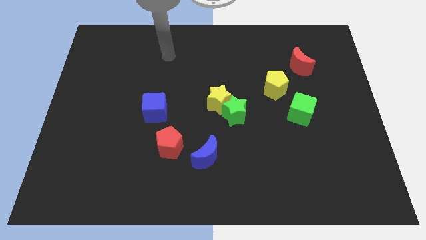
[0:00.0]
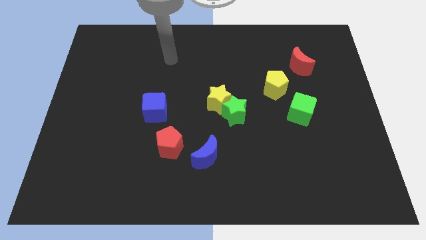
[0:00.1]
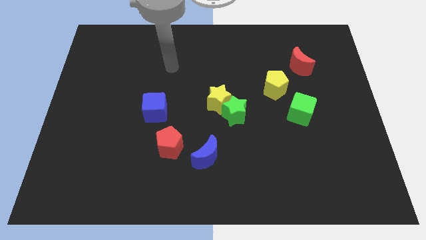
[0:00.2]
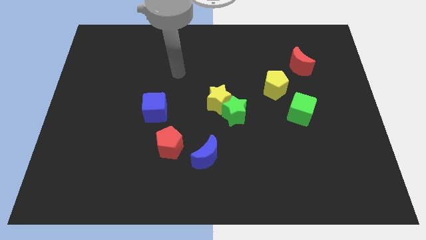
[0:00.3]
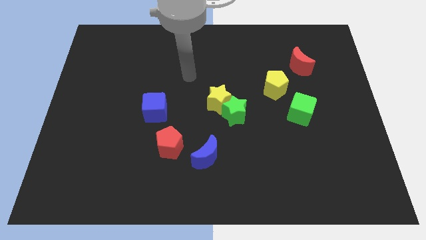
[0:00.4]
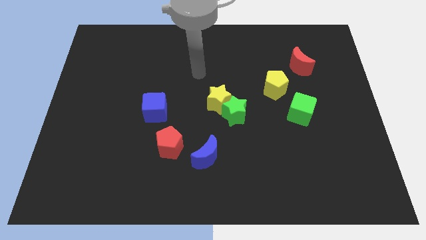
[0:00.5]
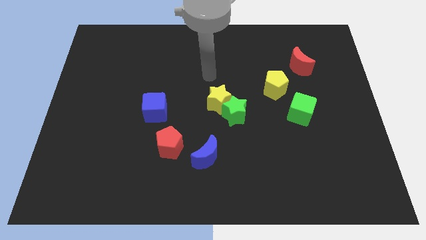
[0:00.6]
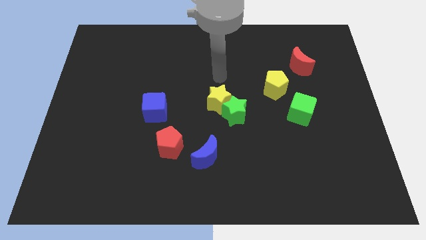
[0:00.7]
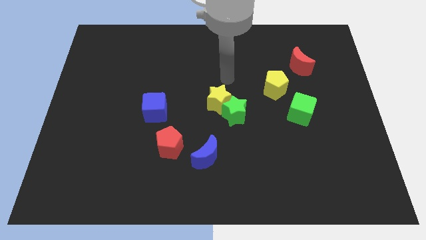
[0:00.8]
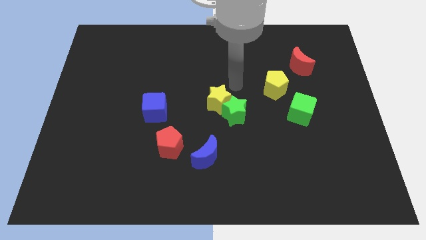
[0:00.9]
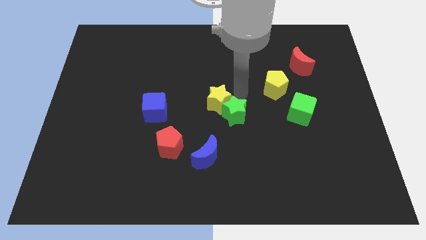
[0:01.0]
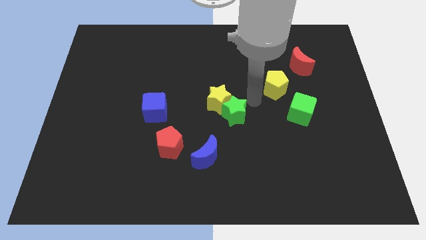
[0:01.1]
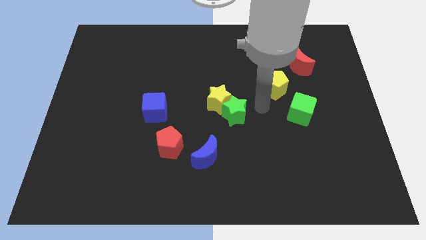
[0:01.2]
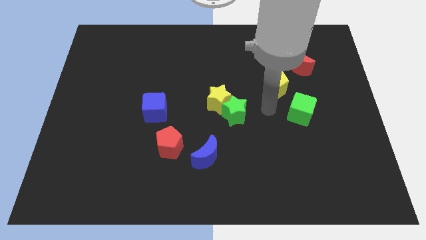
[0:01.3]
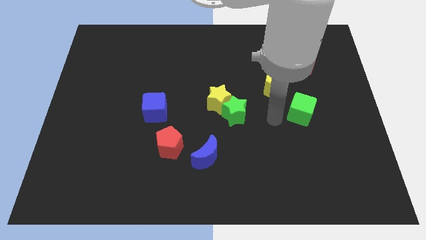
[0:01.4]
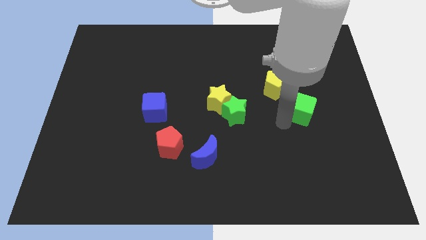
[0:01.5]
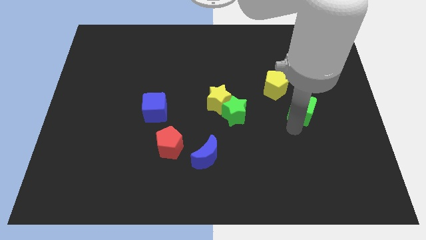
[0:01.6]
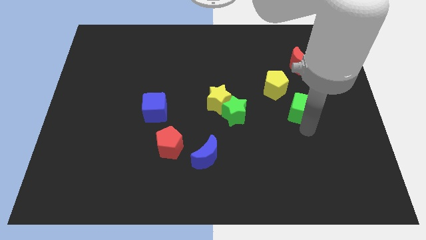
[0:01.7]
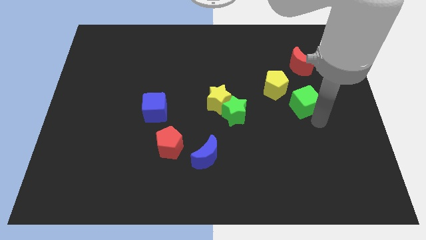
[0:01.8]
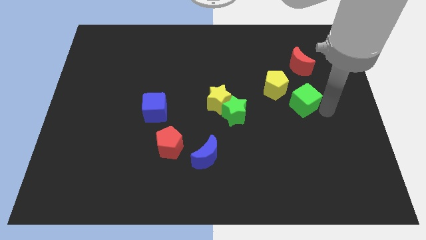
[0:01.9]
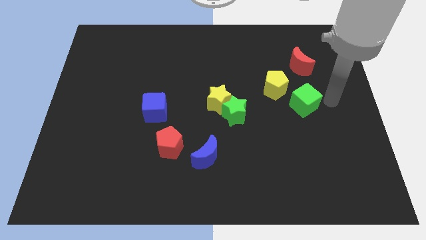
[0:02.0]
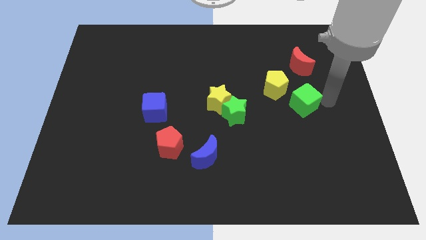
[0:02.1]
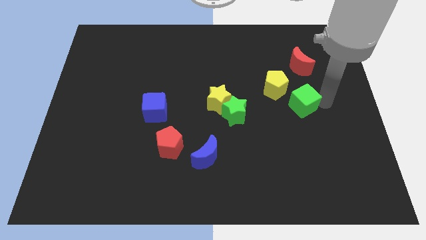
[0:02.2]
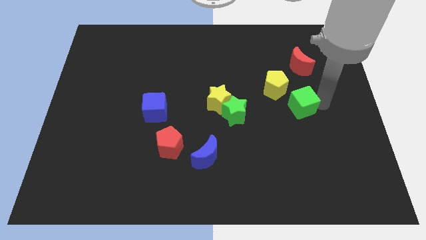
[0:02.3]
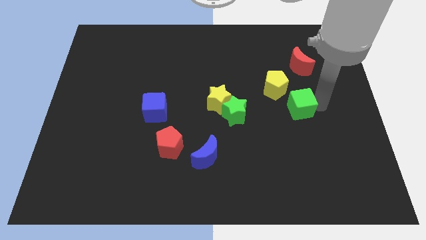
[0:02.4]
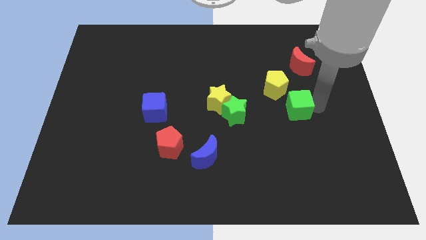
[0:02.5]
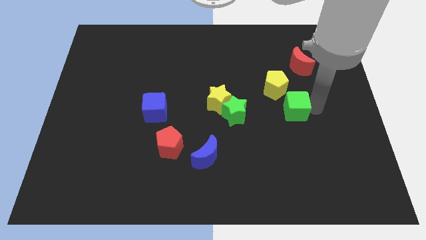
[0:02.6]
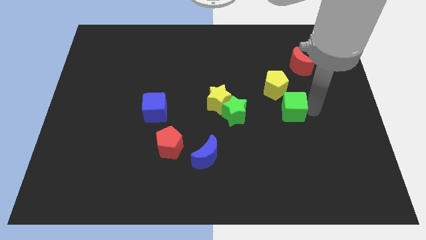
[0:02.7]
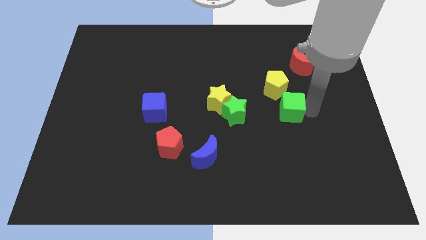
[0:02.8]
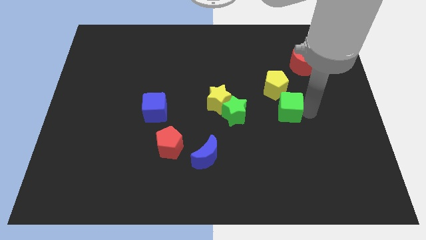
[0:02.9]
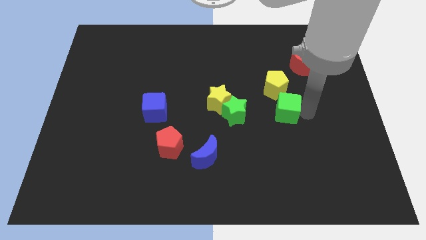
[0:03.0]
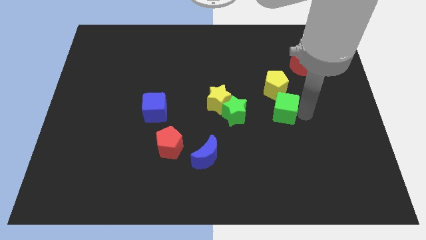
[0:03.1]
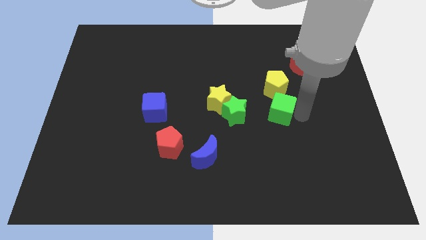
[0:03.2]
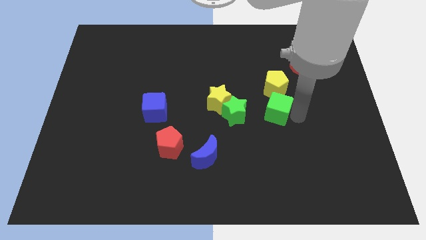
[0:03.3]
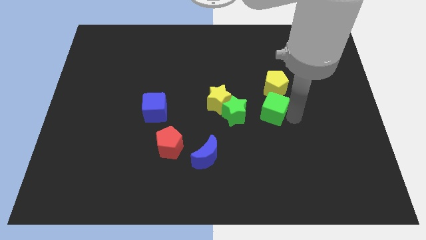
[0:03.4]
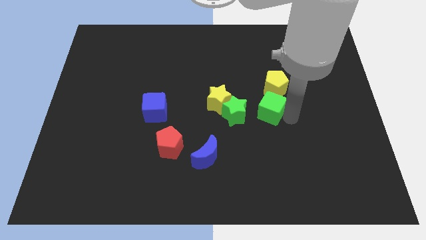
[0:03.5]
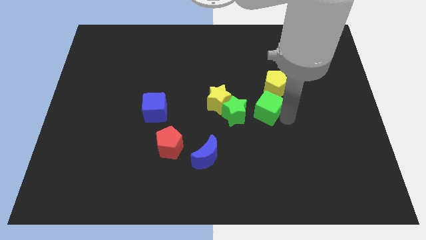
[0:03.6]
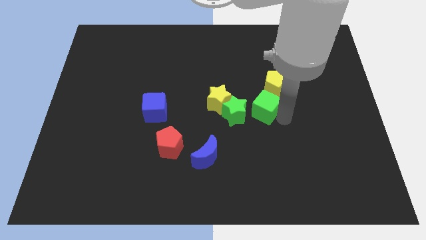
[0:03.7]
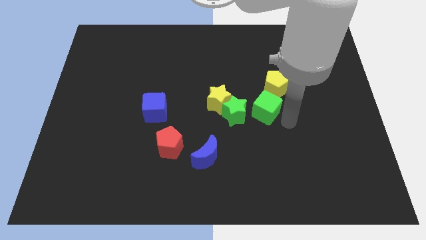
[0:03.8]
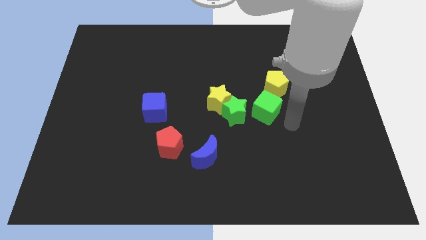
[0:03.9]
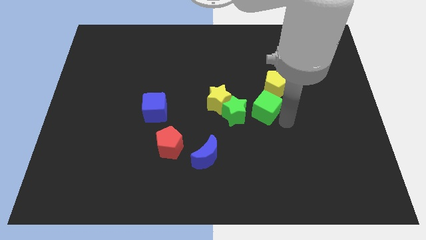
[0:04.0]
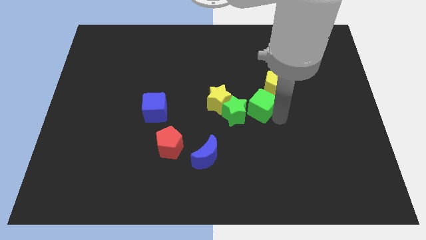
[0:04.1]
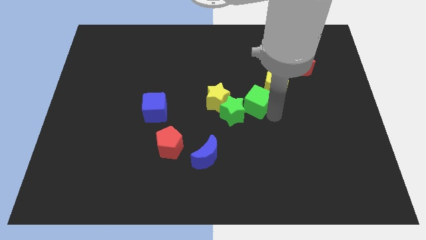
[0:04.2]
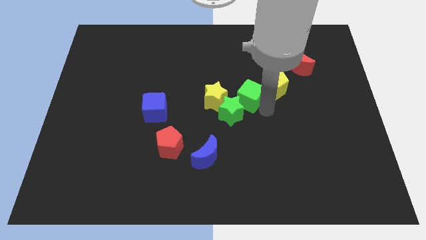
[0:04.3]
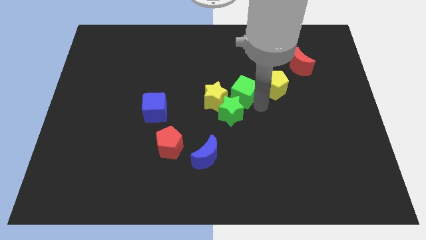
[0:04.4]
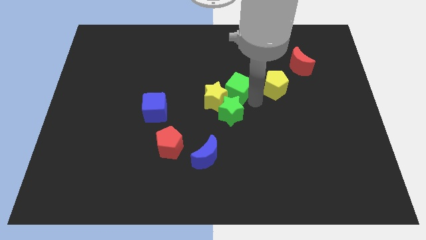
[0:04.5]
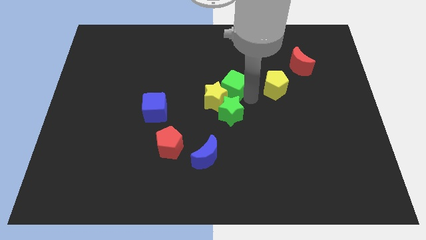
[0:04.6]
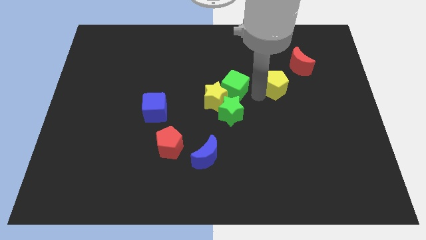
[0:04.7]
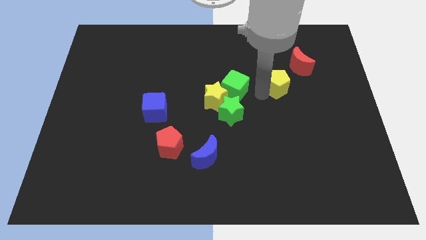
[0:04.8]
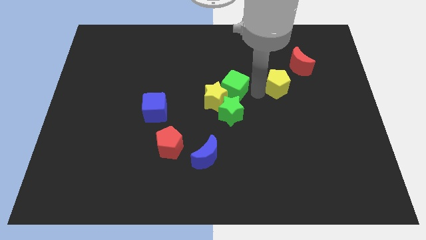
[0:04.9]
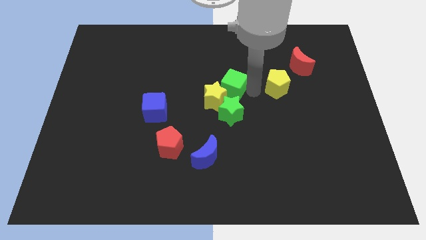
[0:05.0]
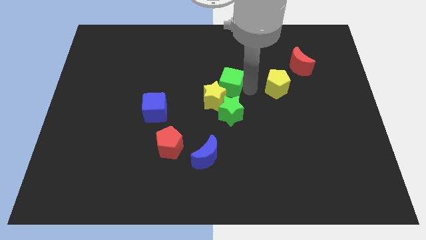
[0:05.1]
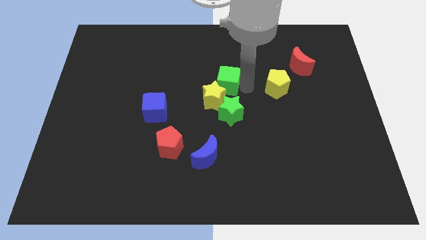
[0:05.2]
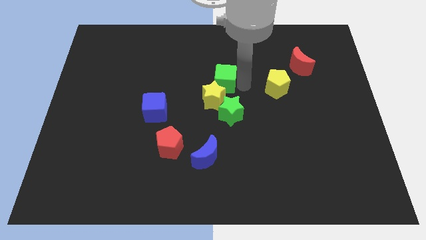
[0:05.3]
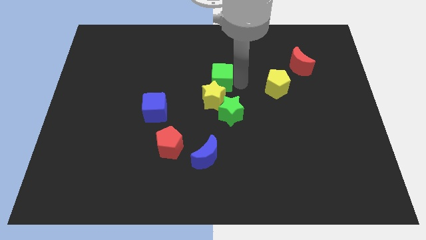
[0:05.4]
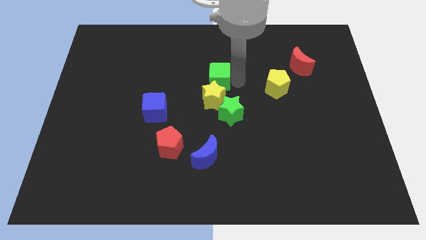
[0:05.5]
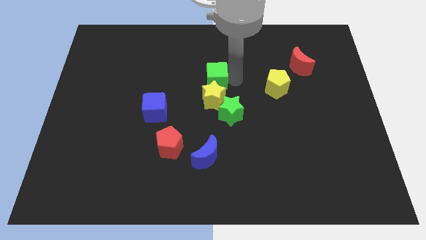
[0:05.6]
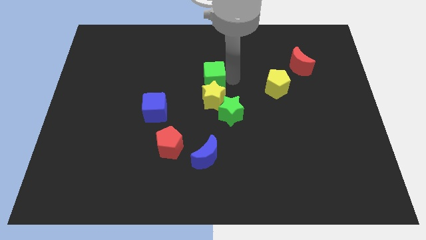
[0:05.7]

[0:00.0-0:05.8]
move the green cube to the top left side of the yellow star

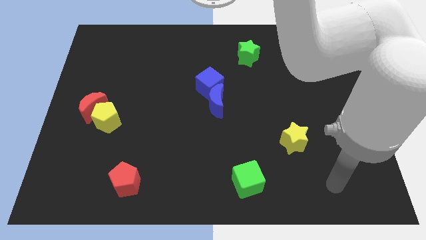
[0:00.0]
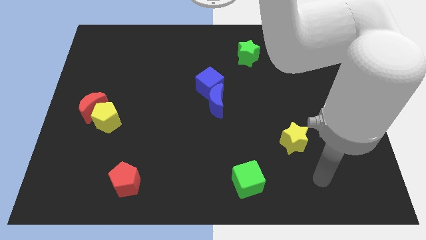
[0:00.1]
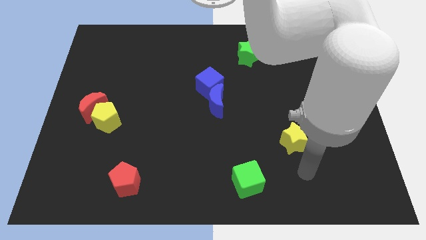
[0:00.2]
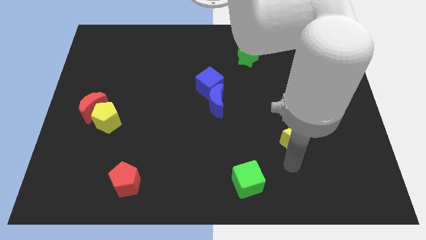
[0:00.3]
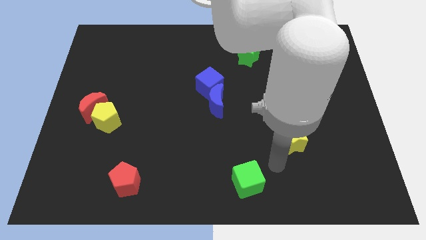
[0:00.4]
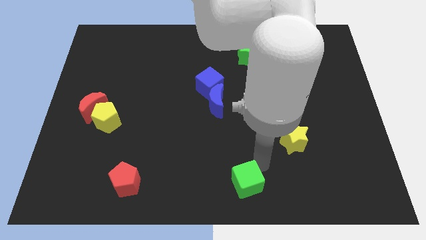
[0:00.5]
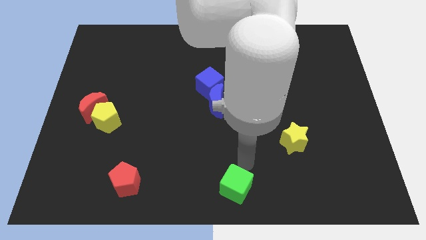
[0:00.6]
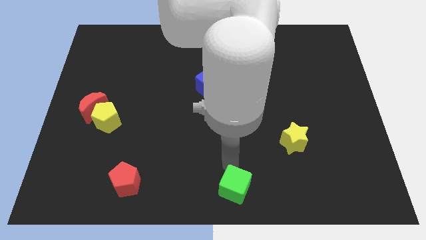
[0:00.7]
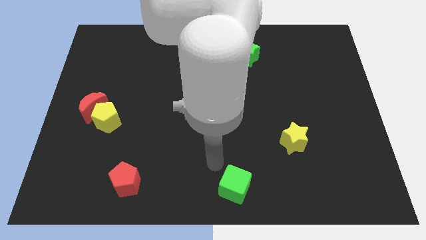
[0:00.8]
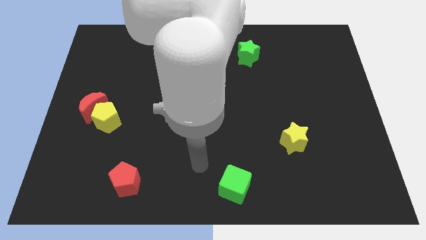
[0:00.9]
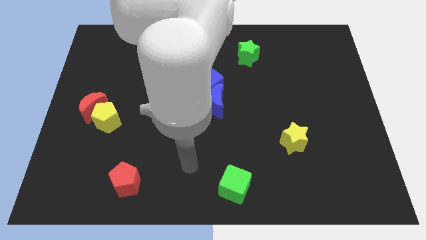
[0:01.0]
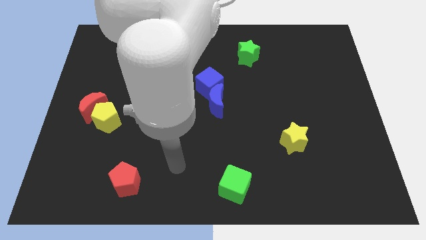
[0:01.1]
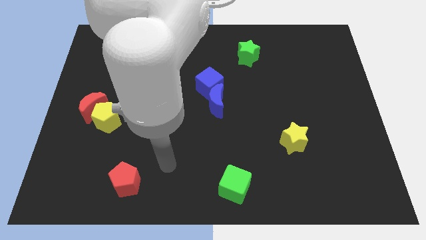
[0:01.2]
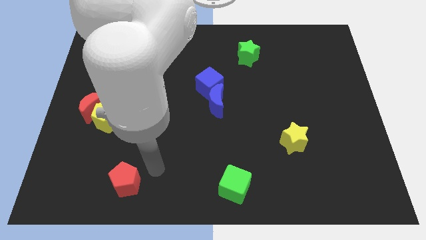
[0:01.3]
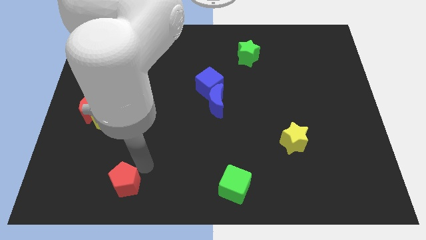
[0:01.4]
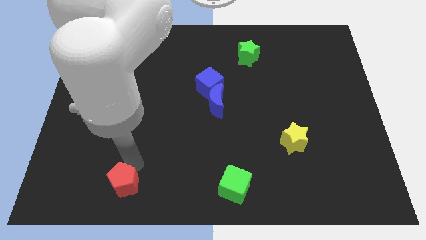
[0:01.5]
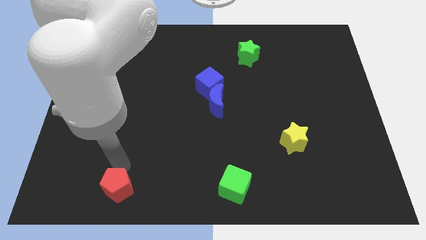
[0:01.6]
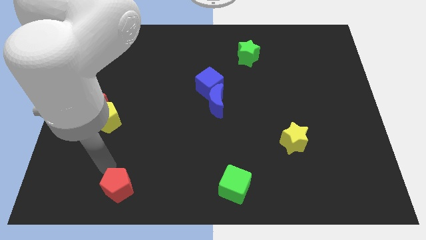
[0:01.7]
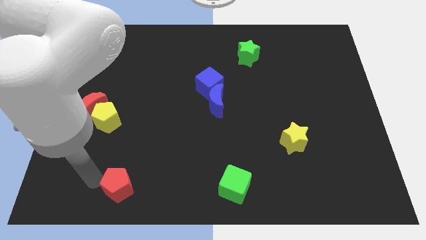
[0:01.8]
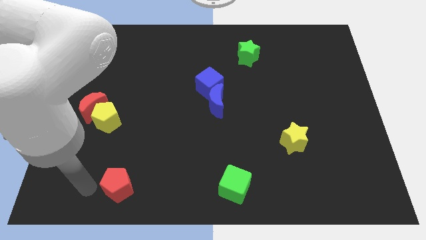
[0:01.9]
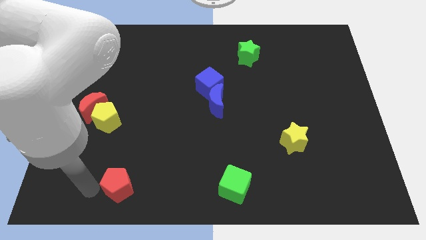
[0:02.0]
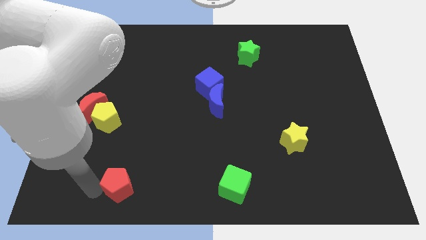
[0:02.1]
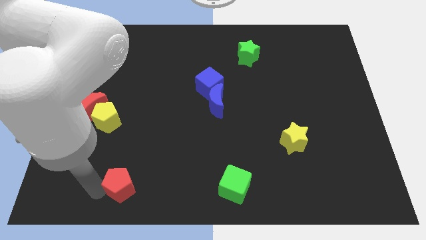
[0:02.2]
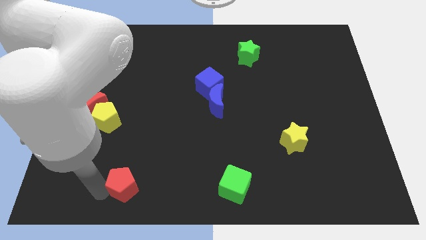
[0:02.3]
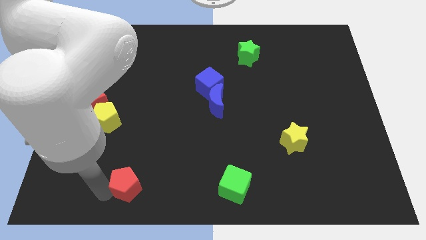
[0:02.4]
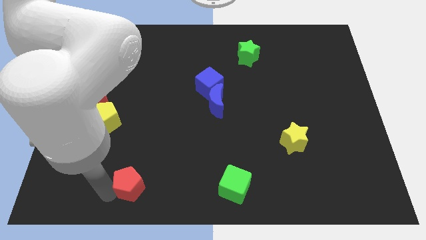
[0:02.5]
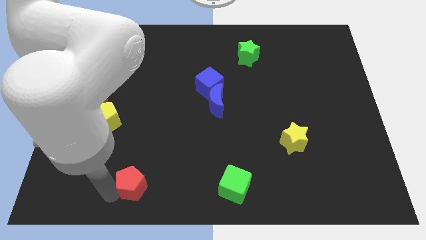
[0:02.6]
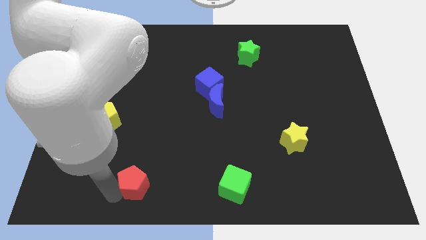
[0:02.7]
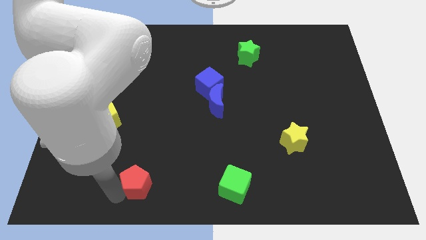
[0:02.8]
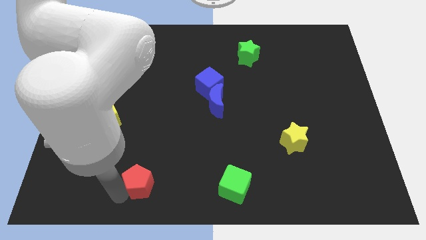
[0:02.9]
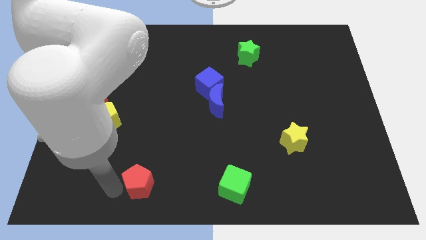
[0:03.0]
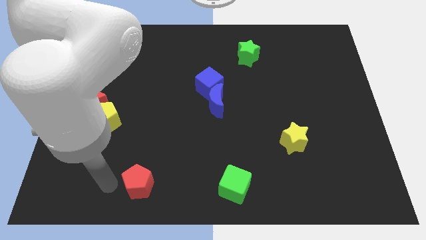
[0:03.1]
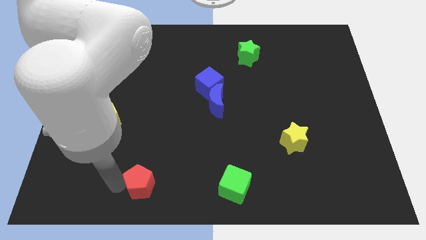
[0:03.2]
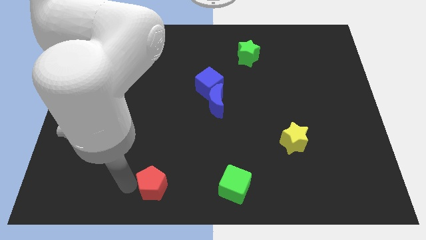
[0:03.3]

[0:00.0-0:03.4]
put the red pentagon left of the green cube
